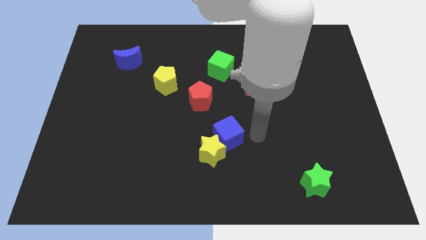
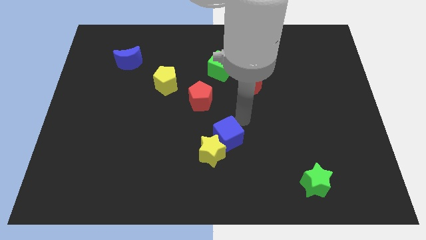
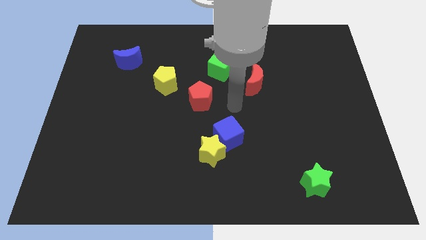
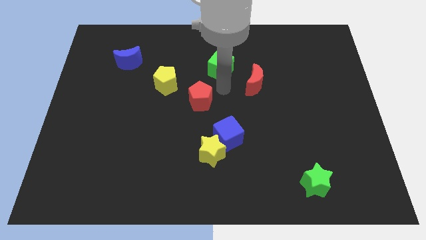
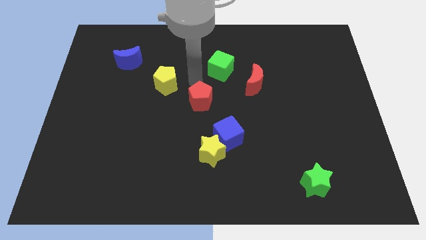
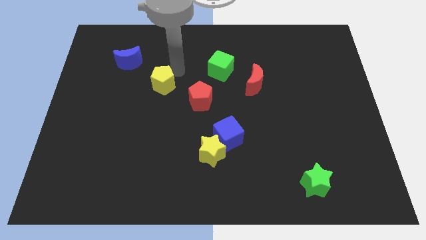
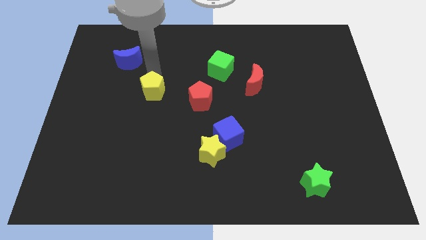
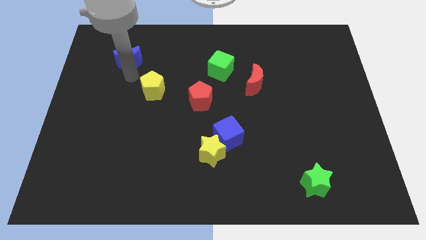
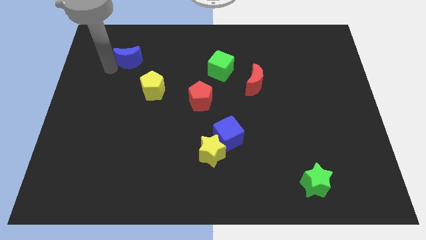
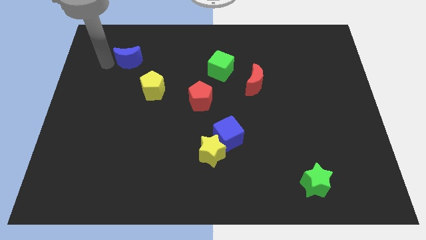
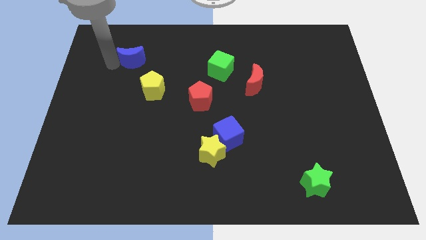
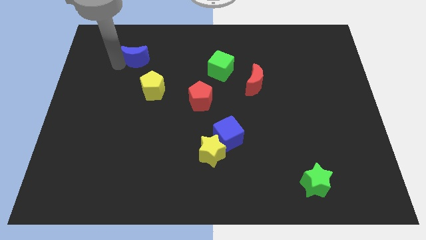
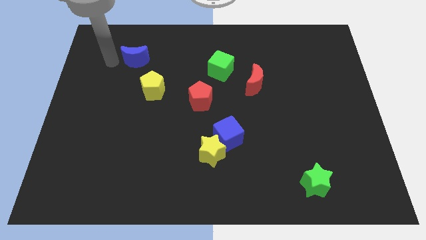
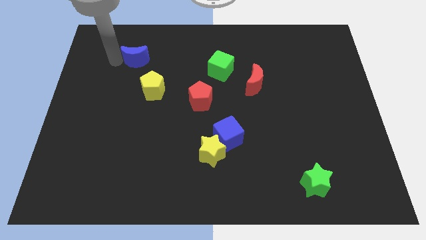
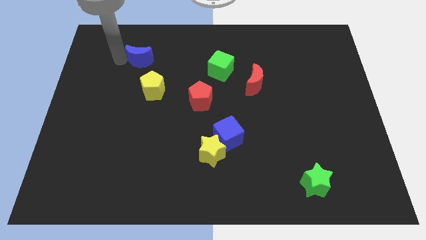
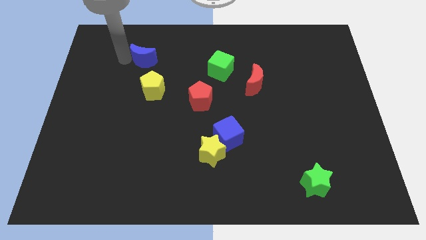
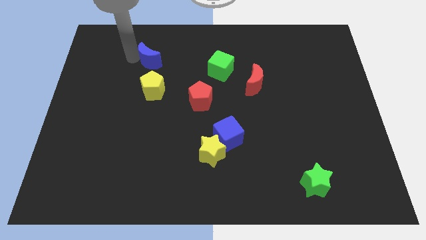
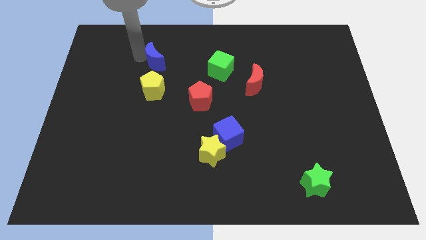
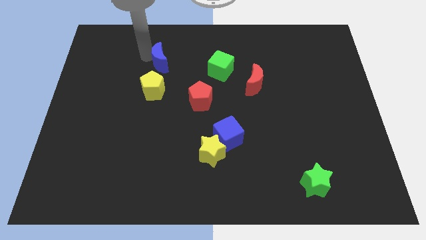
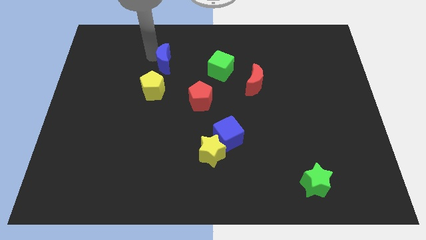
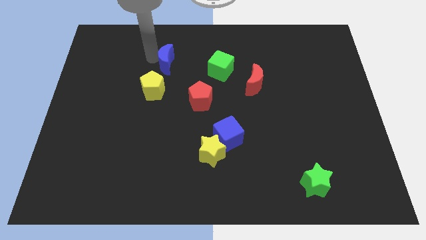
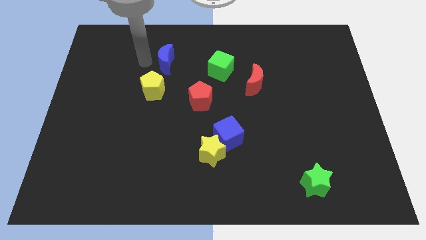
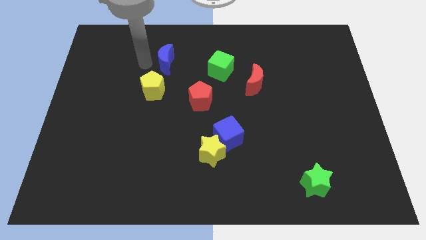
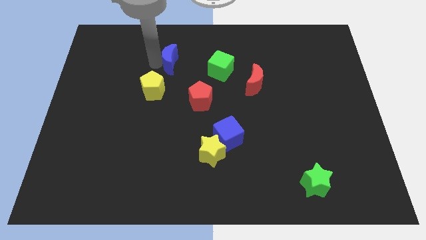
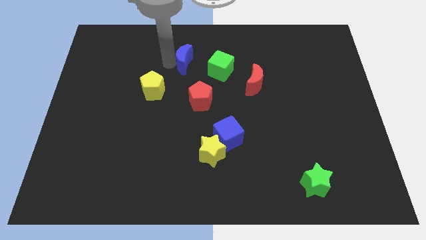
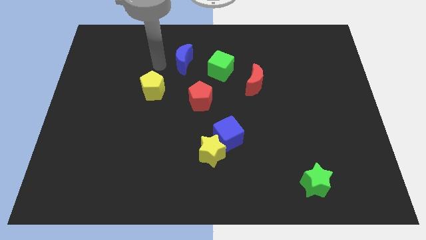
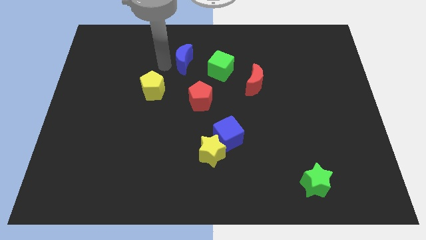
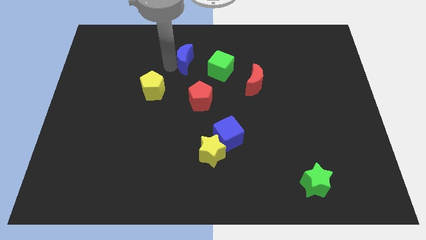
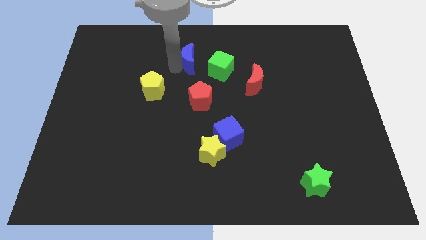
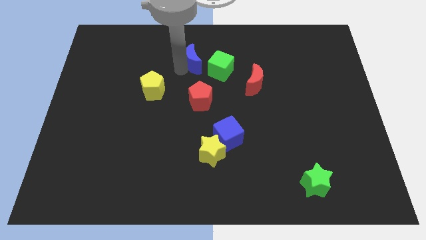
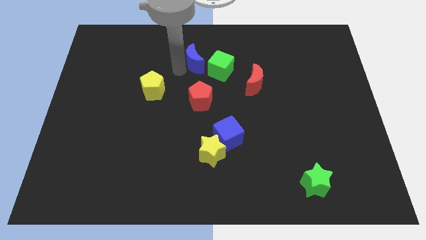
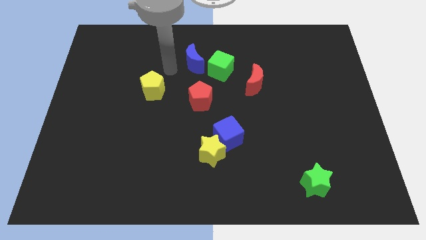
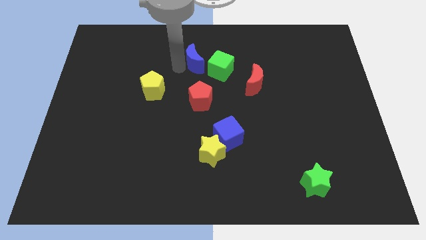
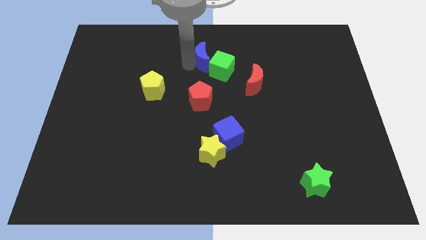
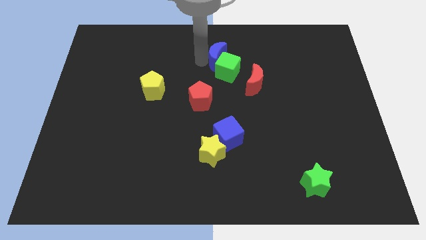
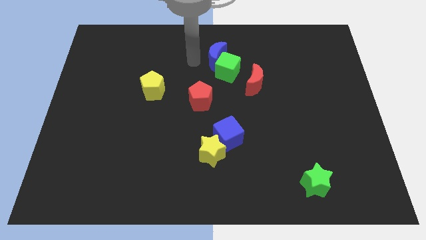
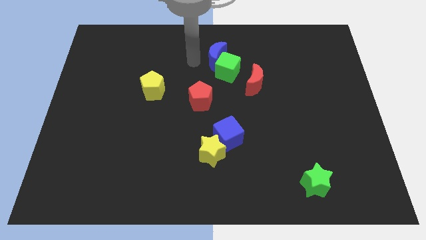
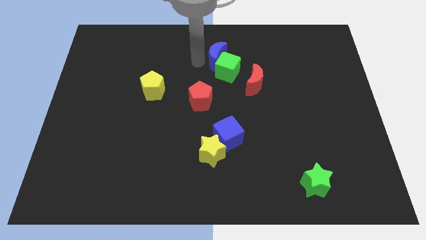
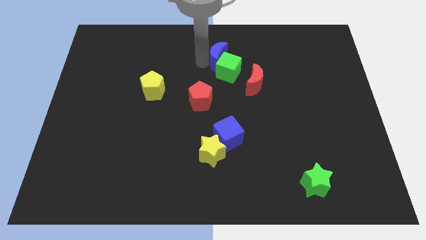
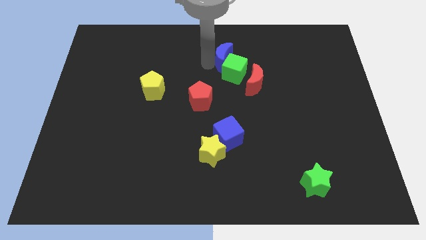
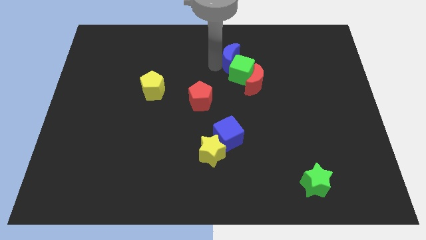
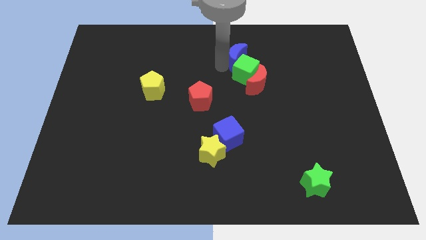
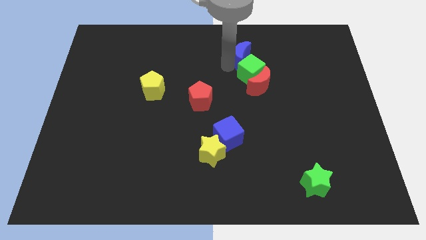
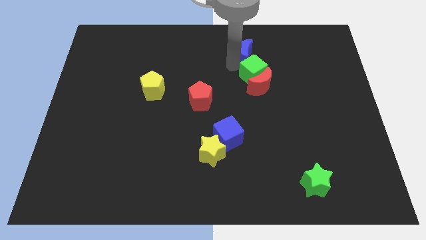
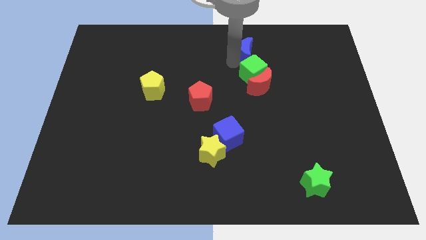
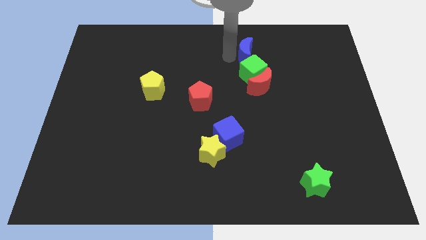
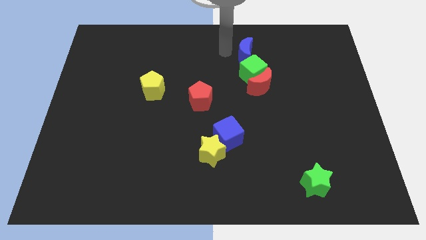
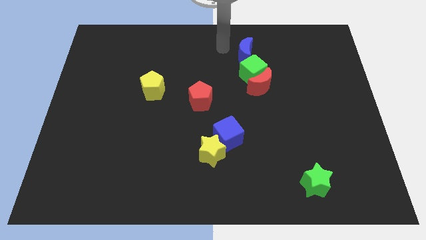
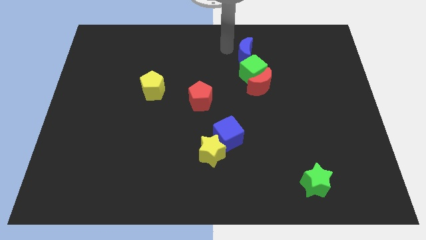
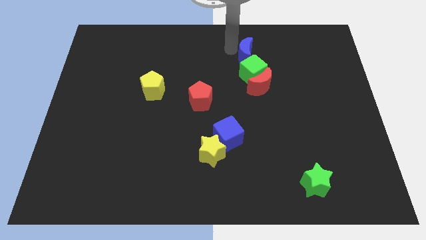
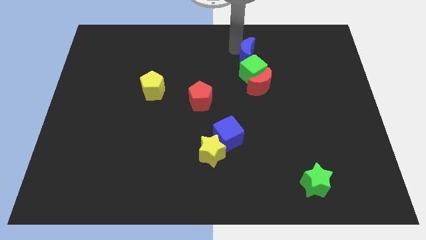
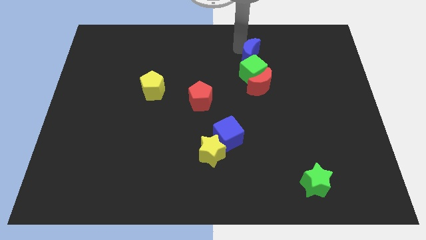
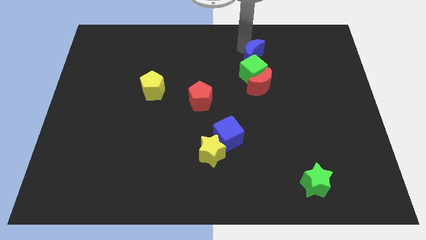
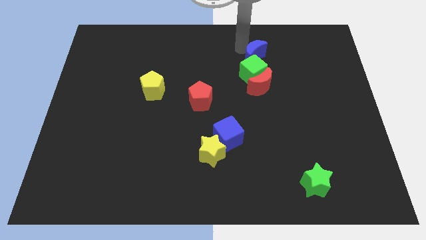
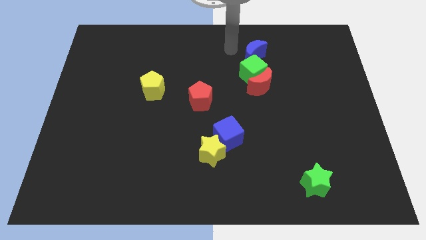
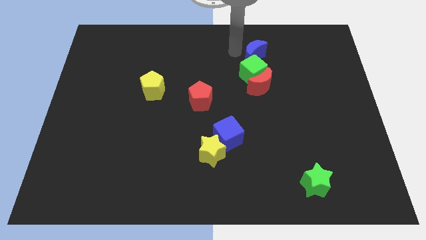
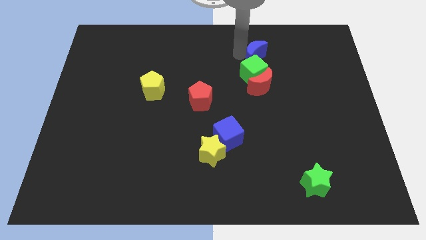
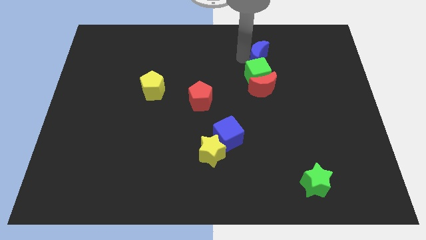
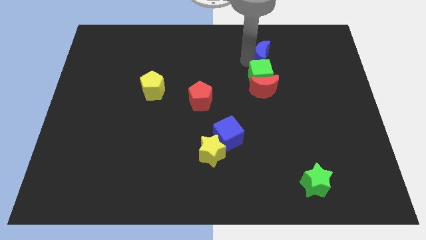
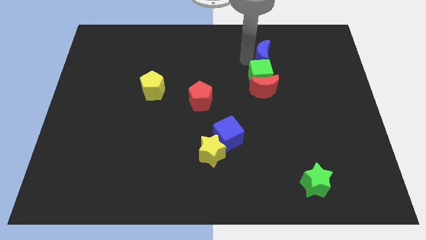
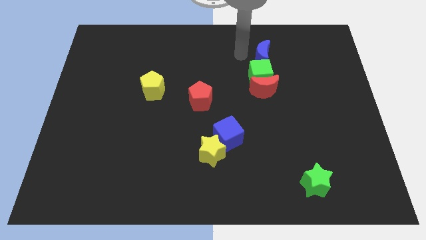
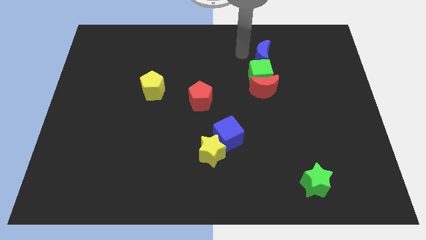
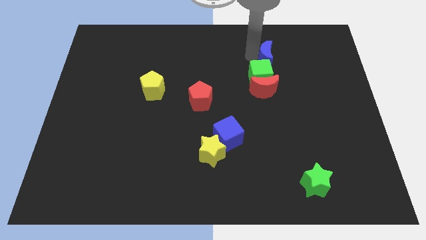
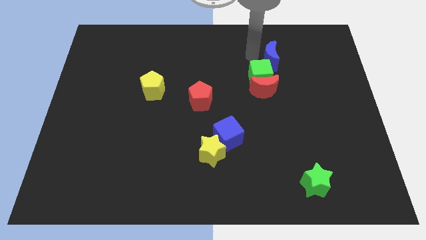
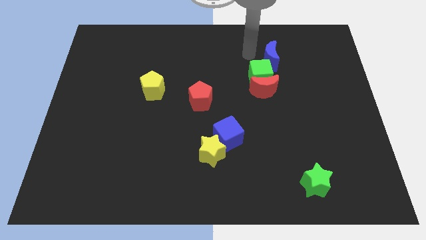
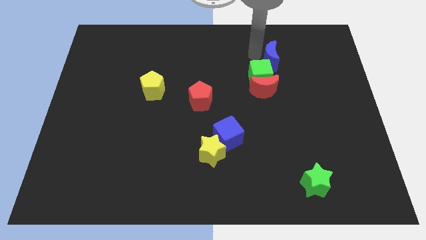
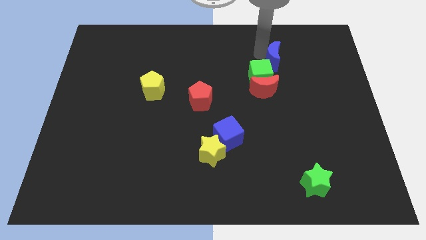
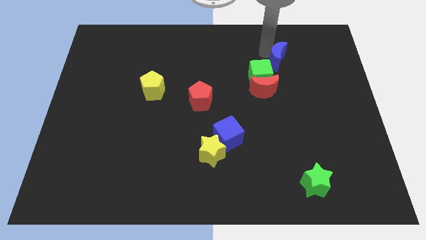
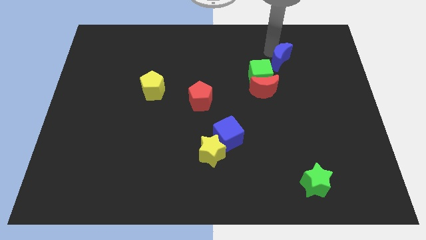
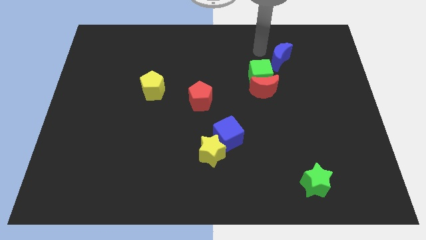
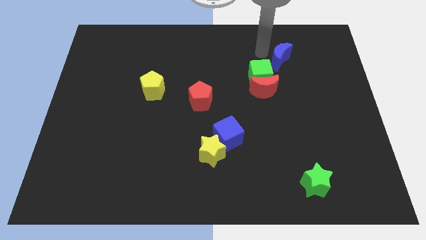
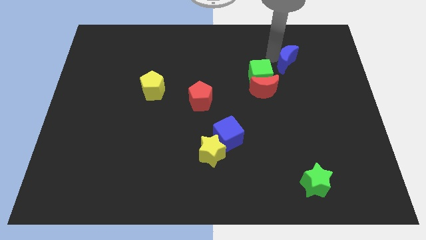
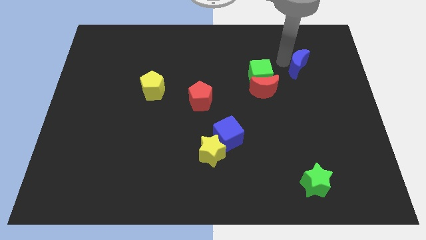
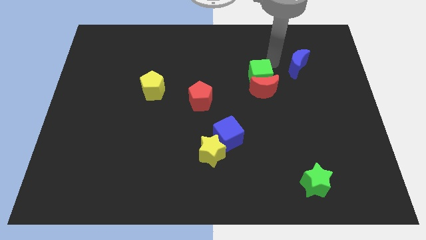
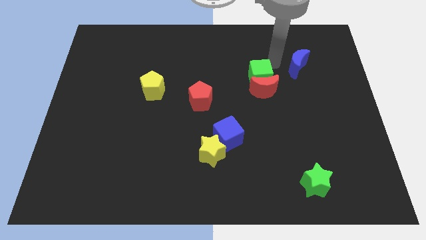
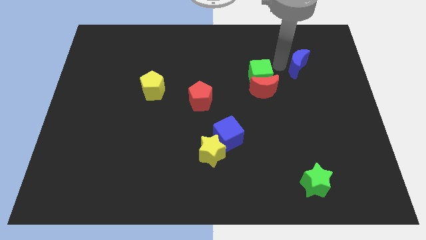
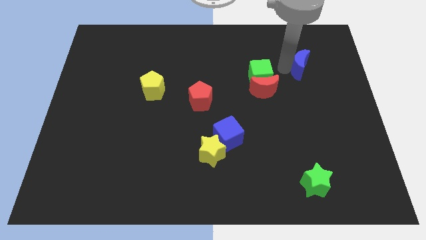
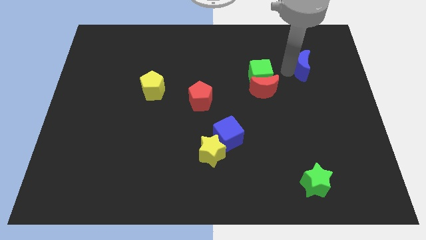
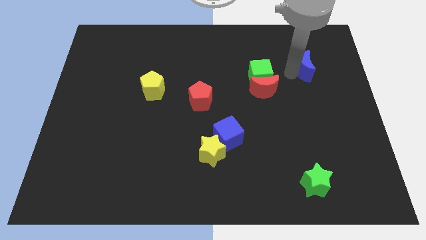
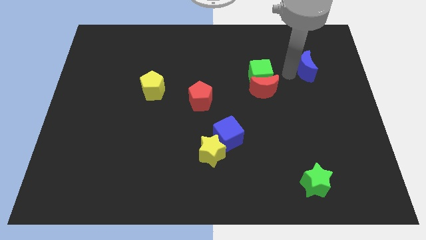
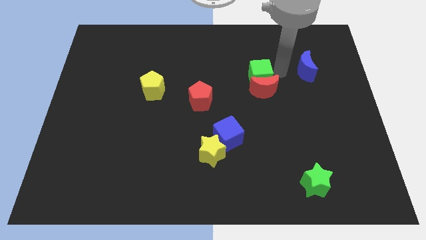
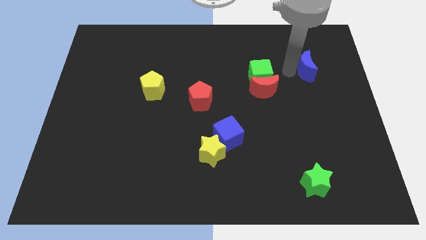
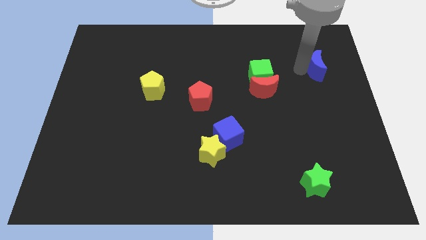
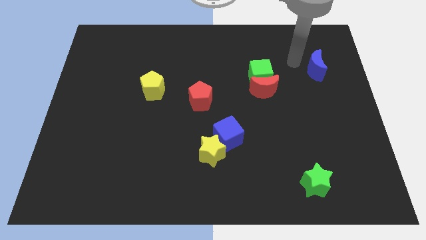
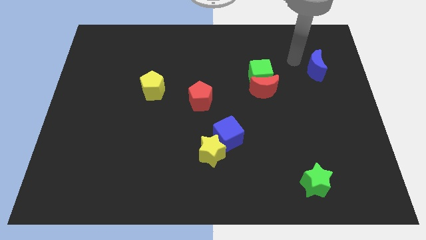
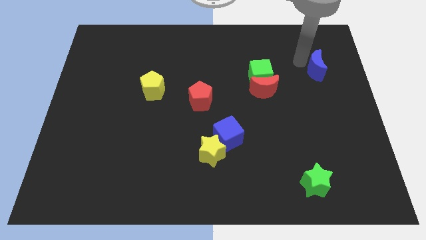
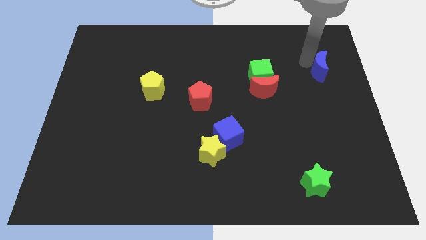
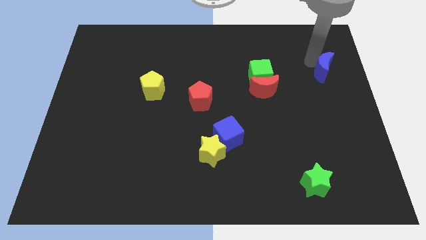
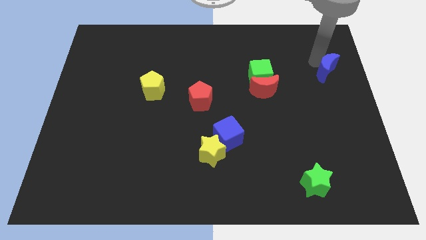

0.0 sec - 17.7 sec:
slide the blue moon to the right side of the board
